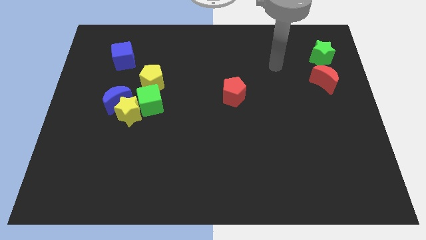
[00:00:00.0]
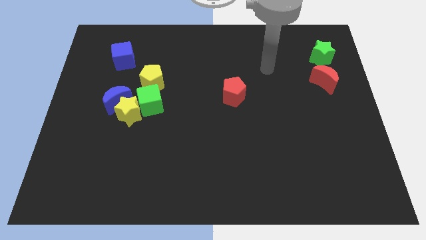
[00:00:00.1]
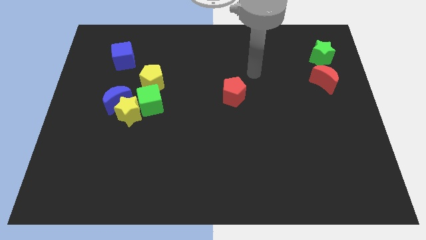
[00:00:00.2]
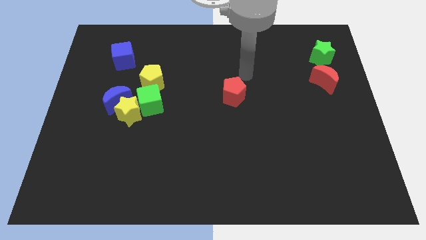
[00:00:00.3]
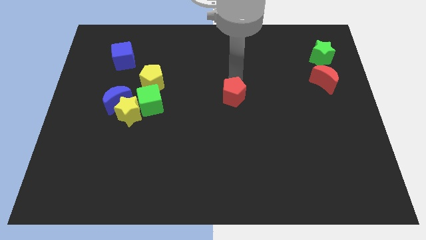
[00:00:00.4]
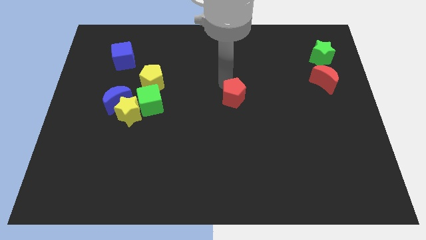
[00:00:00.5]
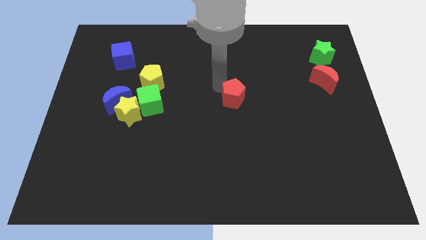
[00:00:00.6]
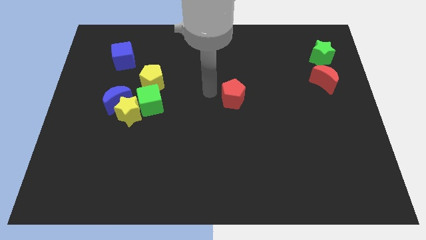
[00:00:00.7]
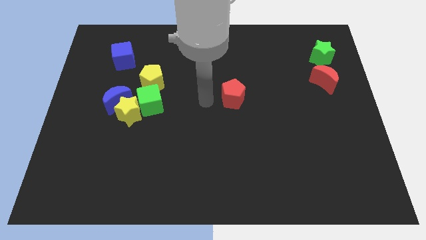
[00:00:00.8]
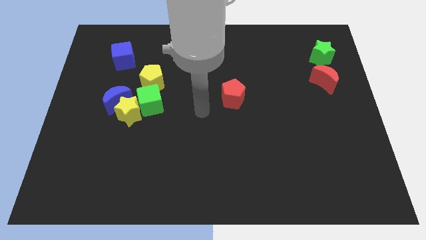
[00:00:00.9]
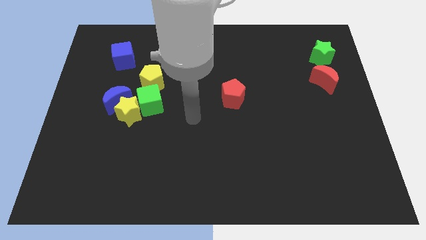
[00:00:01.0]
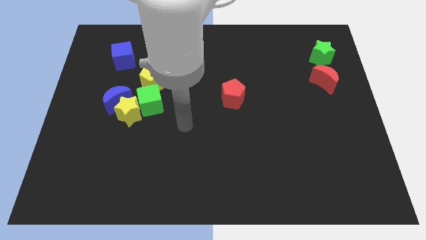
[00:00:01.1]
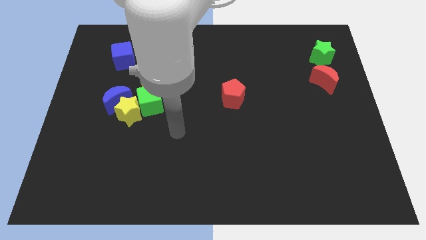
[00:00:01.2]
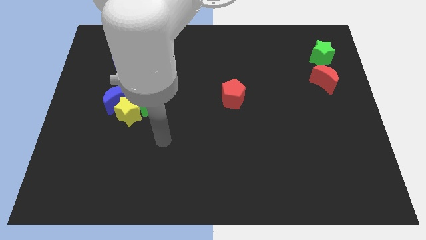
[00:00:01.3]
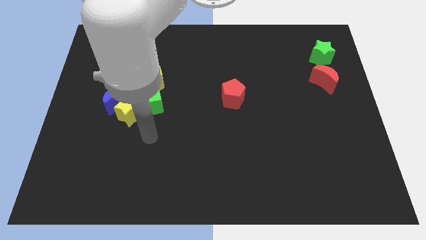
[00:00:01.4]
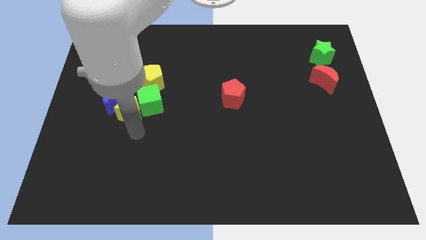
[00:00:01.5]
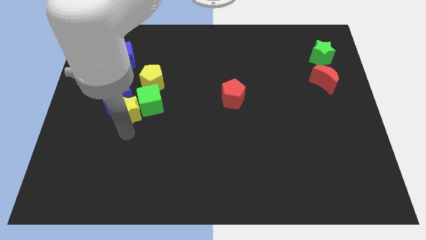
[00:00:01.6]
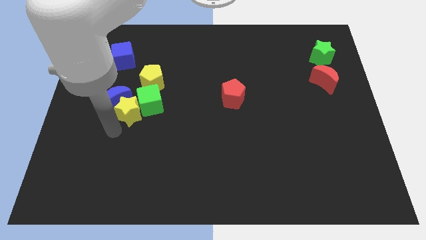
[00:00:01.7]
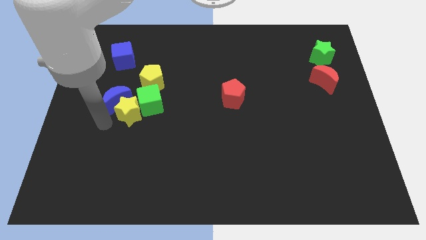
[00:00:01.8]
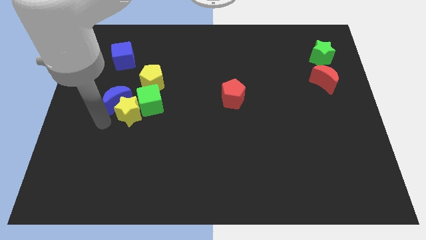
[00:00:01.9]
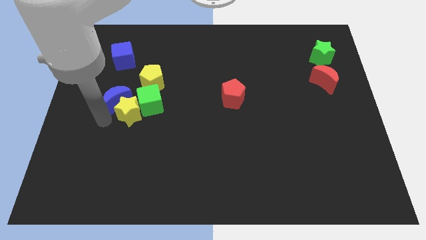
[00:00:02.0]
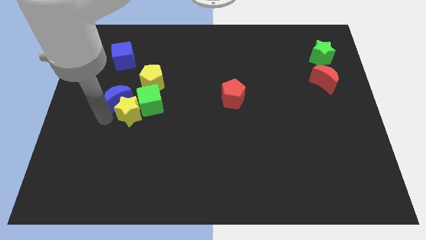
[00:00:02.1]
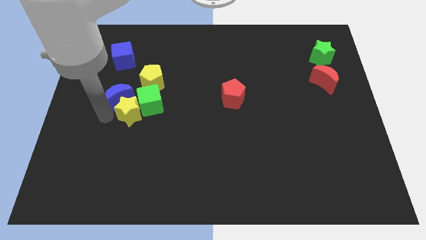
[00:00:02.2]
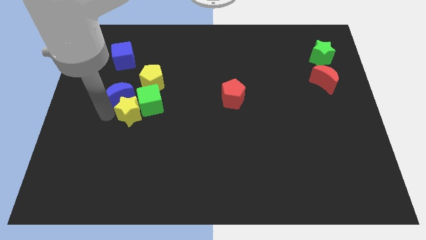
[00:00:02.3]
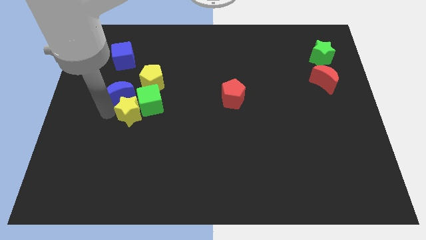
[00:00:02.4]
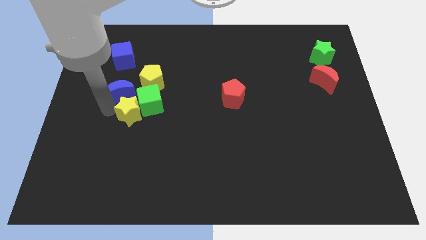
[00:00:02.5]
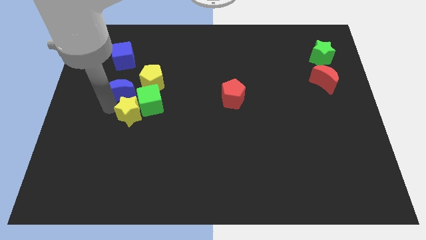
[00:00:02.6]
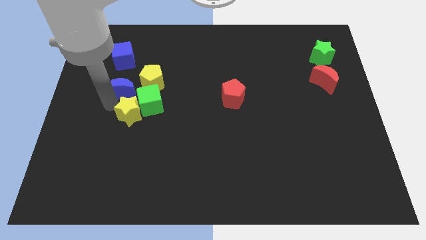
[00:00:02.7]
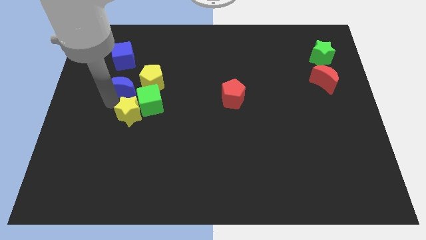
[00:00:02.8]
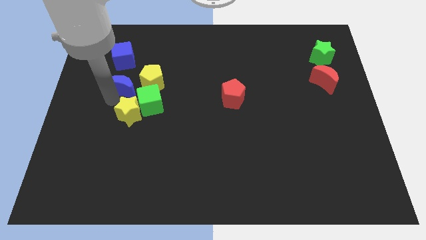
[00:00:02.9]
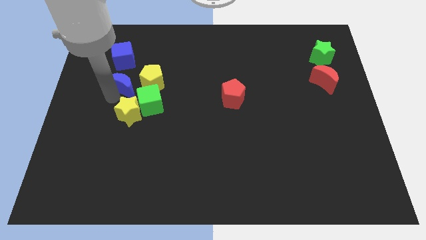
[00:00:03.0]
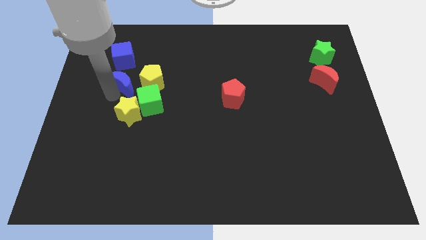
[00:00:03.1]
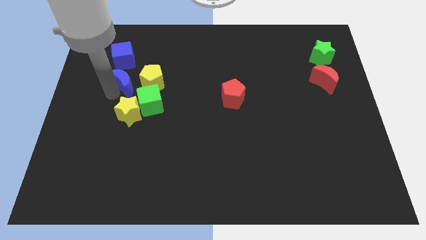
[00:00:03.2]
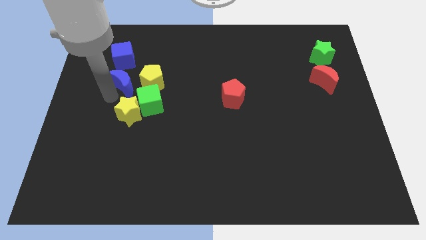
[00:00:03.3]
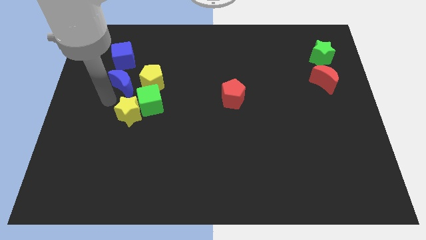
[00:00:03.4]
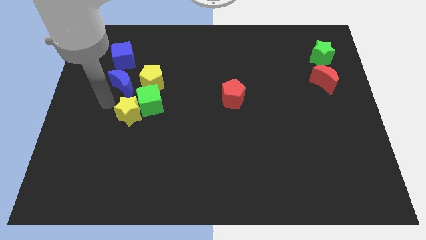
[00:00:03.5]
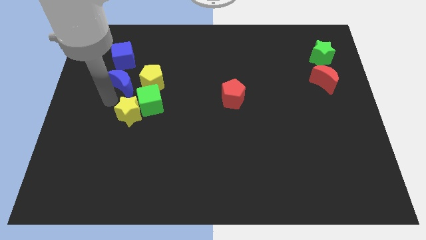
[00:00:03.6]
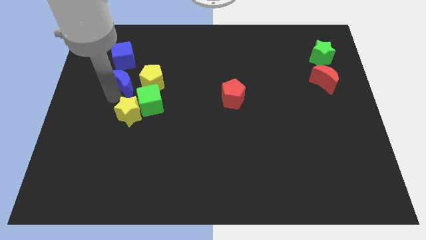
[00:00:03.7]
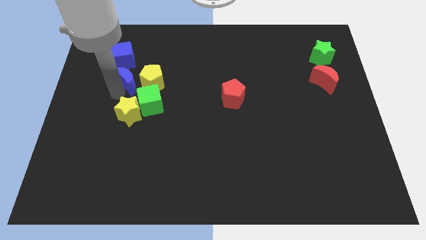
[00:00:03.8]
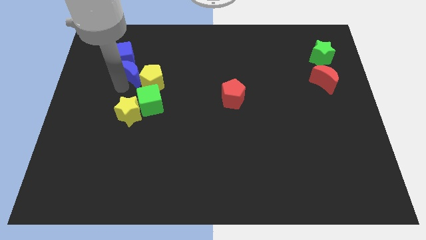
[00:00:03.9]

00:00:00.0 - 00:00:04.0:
slightly push the blue moon upwards and then to the right

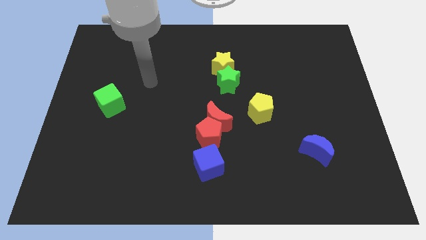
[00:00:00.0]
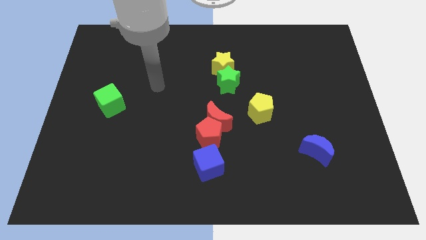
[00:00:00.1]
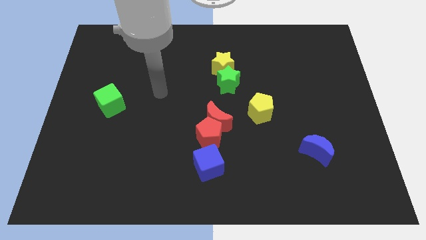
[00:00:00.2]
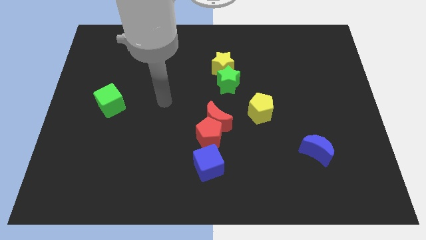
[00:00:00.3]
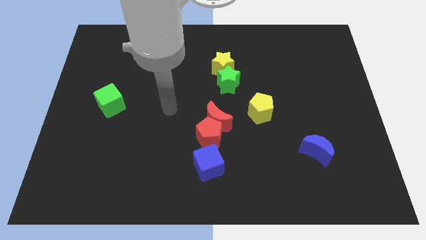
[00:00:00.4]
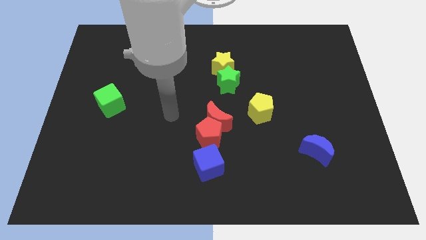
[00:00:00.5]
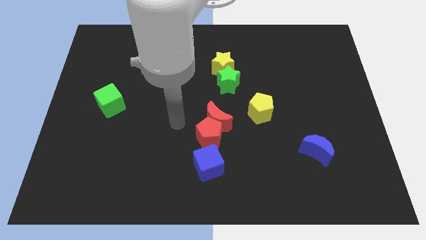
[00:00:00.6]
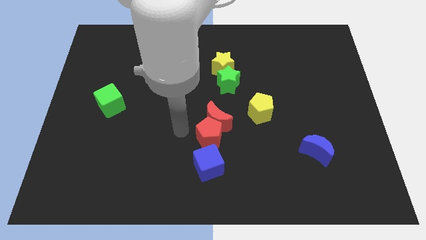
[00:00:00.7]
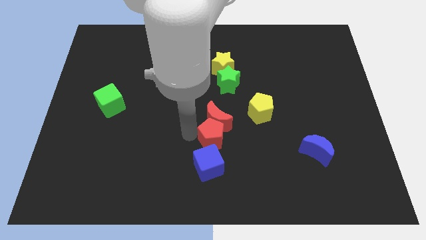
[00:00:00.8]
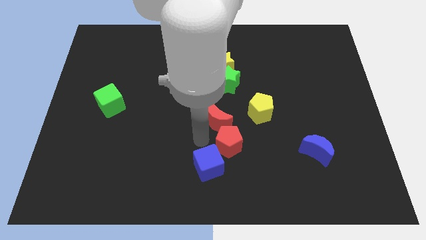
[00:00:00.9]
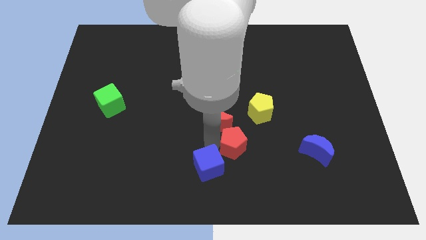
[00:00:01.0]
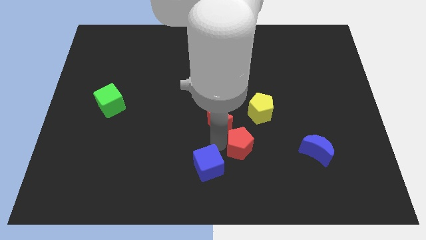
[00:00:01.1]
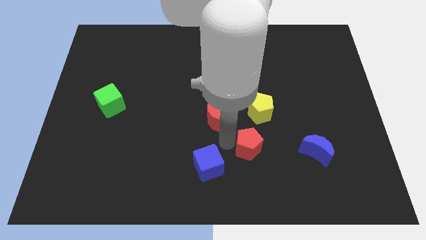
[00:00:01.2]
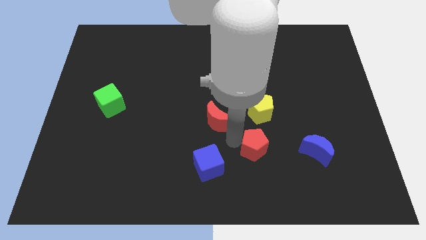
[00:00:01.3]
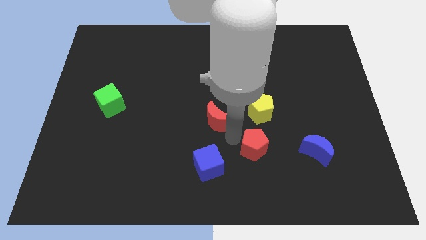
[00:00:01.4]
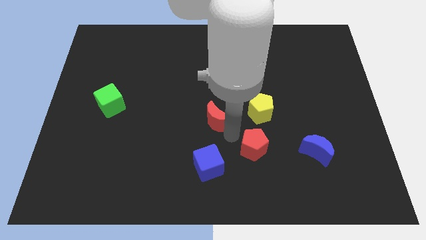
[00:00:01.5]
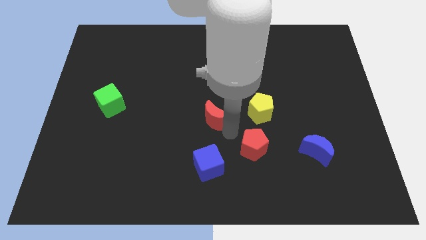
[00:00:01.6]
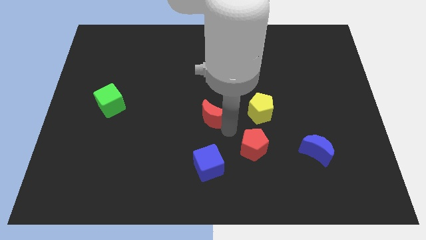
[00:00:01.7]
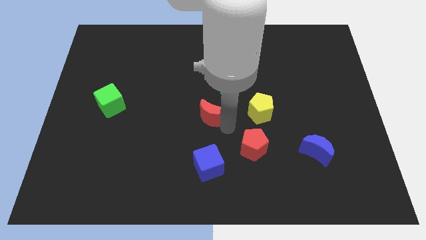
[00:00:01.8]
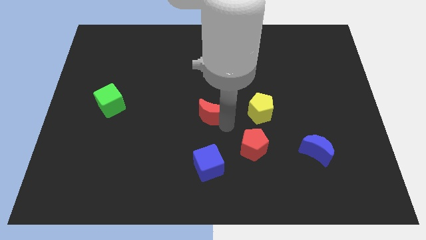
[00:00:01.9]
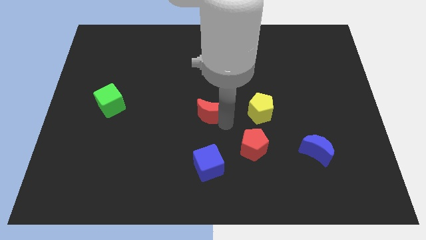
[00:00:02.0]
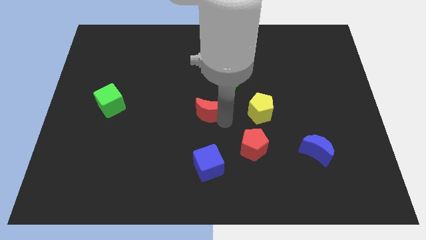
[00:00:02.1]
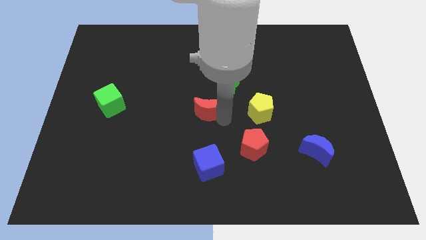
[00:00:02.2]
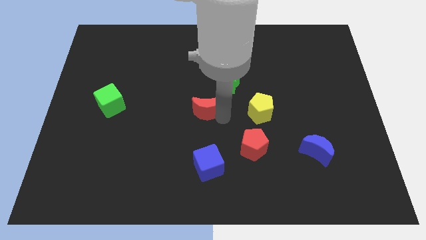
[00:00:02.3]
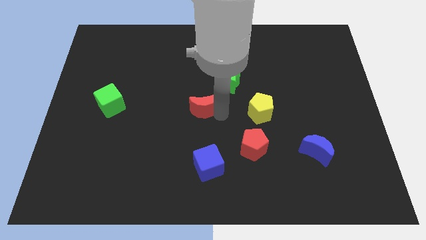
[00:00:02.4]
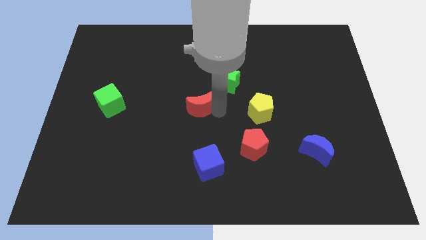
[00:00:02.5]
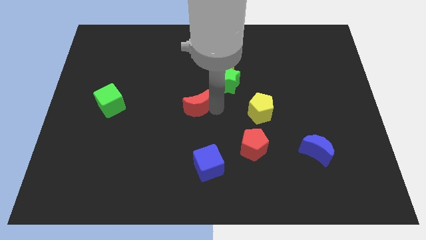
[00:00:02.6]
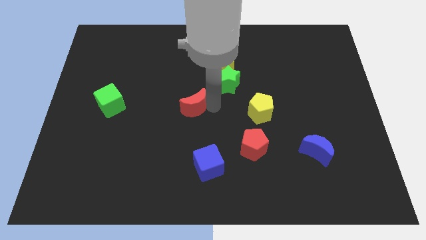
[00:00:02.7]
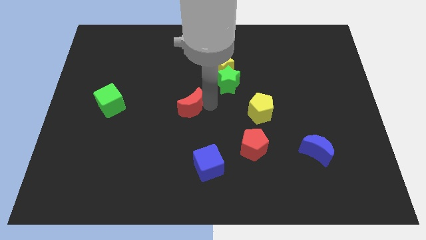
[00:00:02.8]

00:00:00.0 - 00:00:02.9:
move the red moon a little diagonally up and left

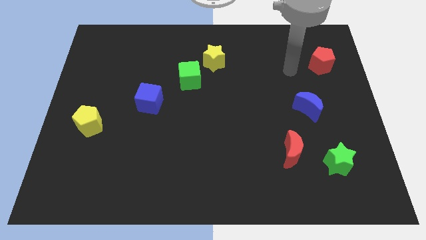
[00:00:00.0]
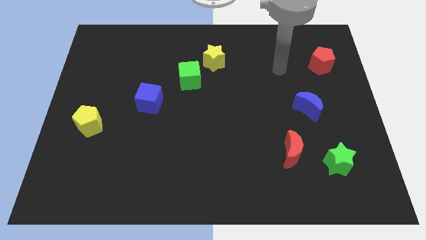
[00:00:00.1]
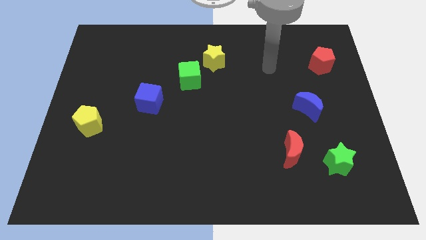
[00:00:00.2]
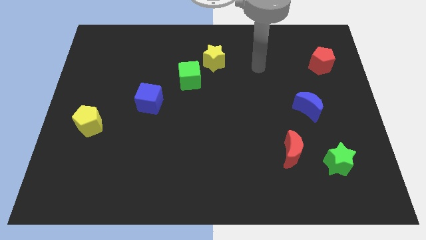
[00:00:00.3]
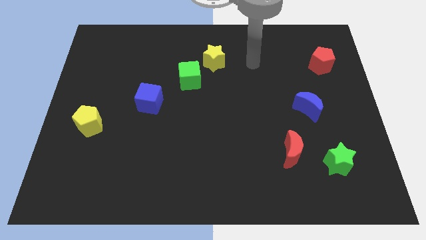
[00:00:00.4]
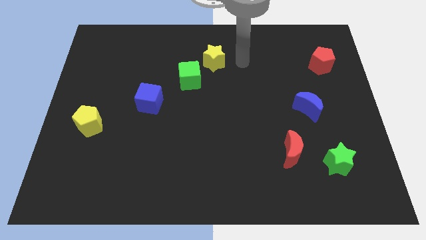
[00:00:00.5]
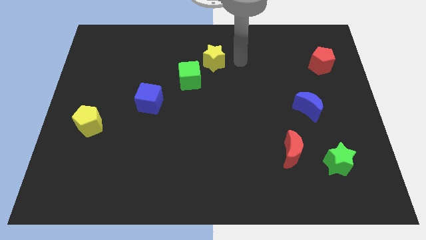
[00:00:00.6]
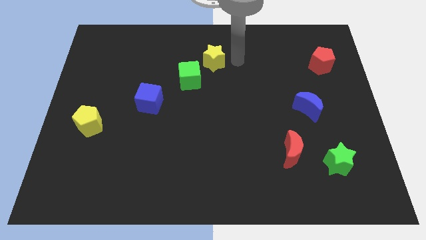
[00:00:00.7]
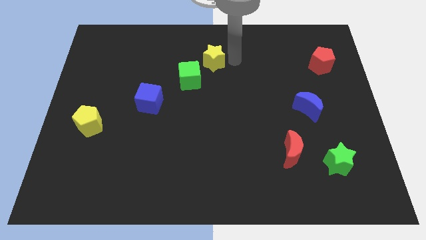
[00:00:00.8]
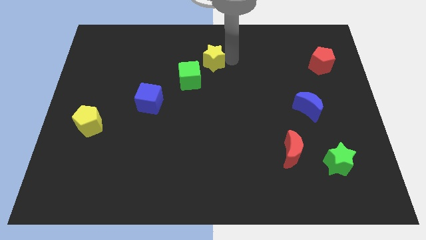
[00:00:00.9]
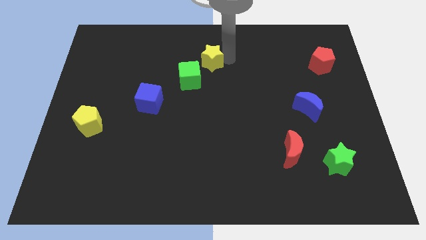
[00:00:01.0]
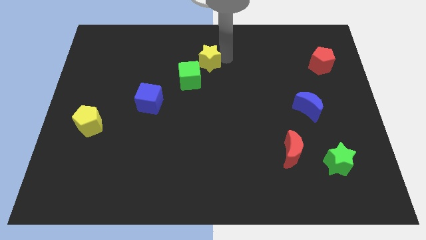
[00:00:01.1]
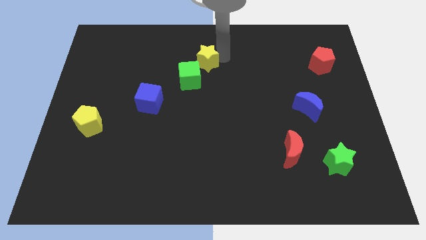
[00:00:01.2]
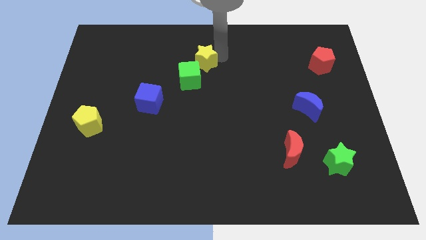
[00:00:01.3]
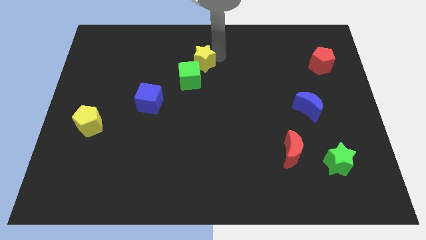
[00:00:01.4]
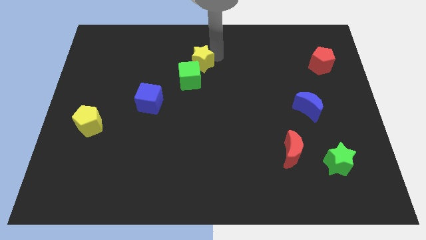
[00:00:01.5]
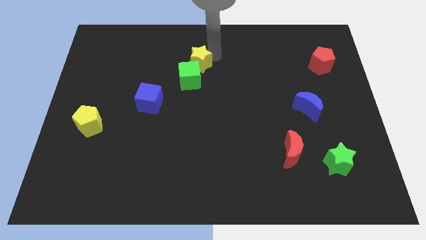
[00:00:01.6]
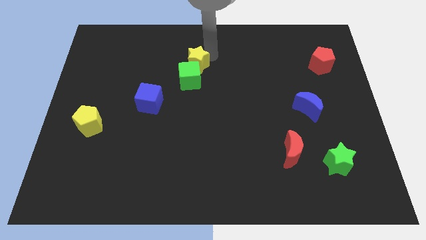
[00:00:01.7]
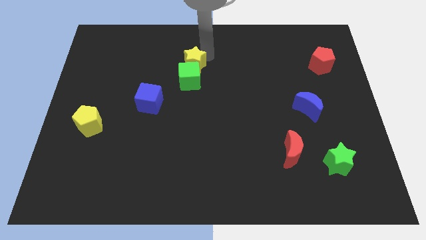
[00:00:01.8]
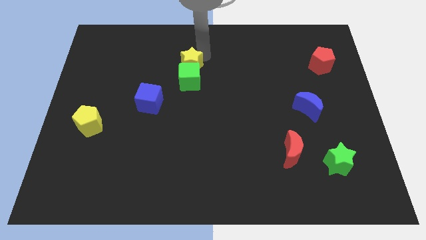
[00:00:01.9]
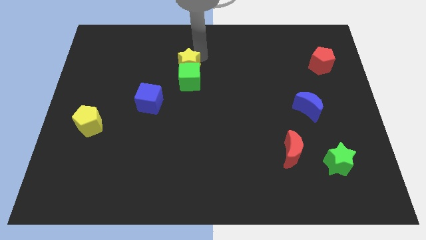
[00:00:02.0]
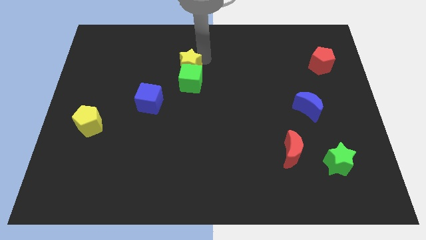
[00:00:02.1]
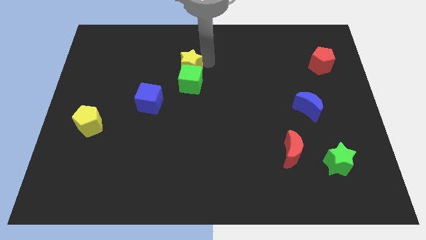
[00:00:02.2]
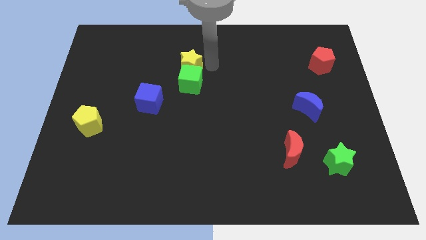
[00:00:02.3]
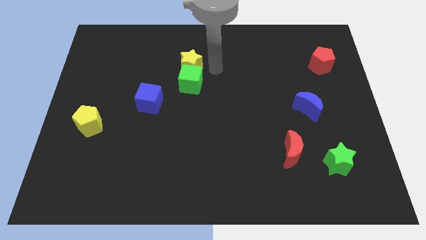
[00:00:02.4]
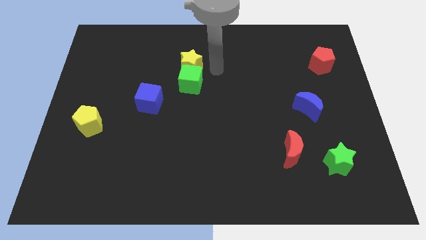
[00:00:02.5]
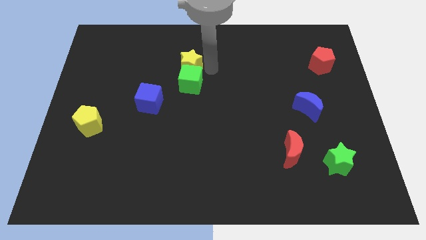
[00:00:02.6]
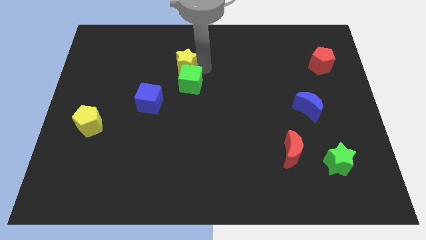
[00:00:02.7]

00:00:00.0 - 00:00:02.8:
slightly push the yellow star to the left
